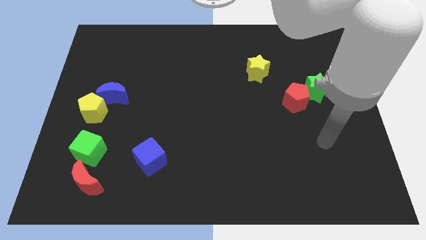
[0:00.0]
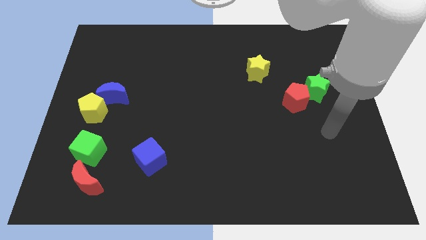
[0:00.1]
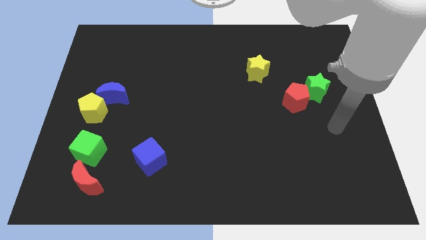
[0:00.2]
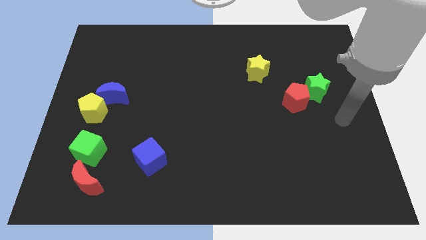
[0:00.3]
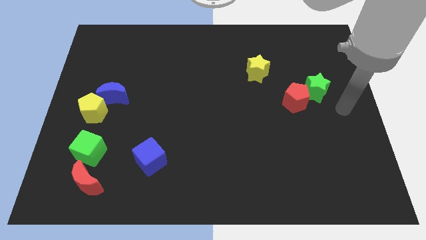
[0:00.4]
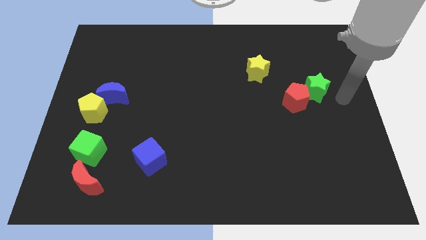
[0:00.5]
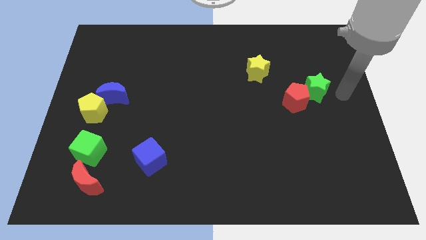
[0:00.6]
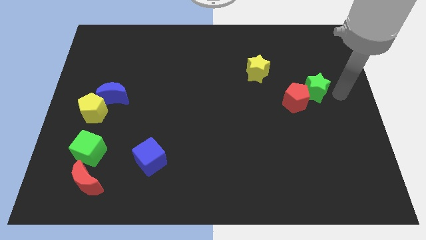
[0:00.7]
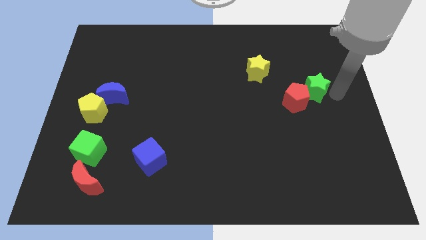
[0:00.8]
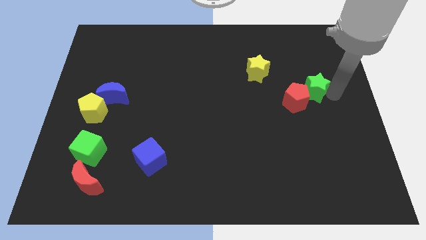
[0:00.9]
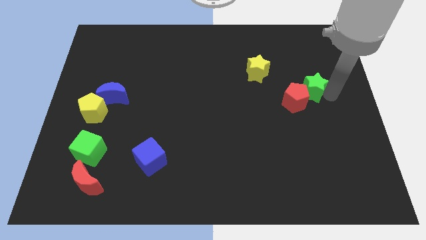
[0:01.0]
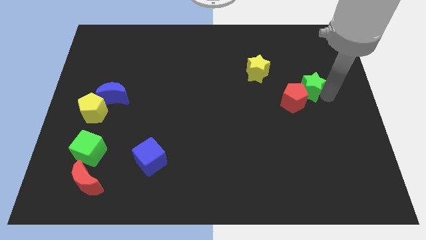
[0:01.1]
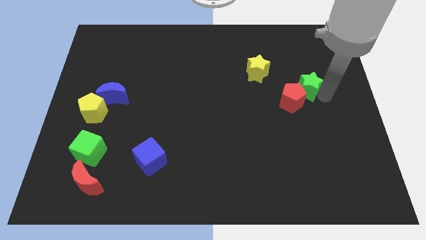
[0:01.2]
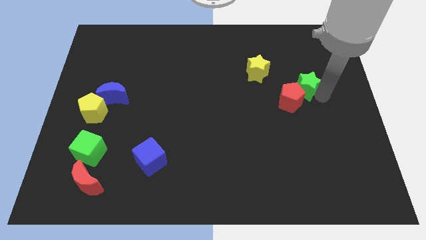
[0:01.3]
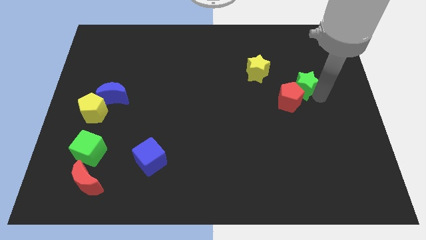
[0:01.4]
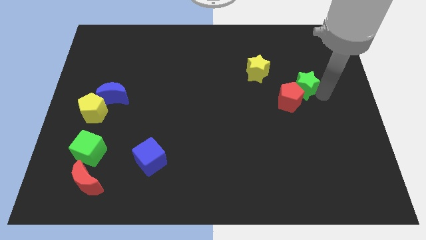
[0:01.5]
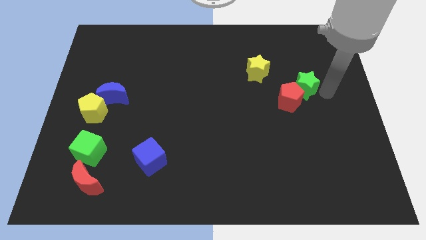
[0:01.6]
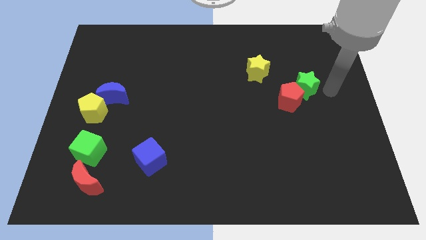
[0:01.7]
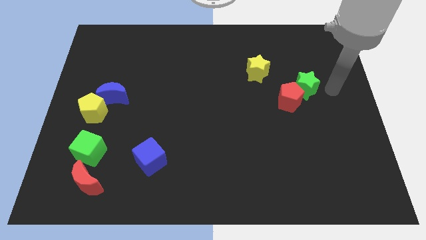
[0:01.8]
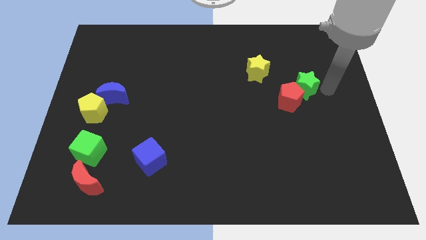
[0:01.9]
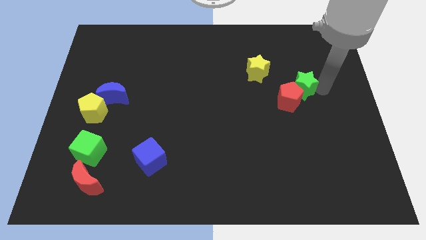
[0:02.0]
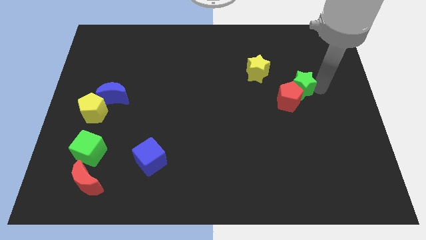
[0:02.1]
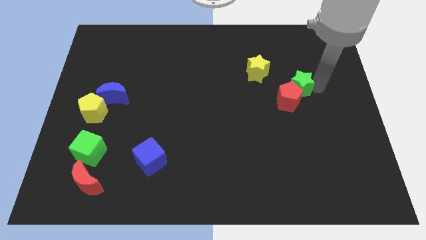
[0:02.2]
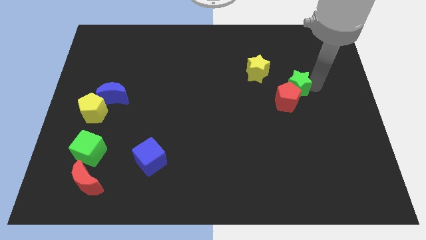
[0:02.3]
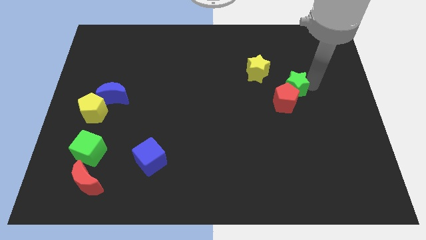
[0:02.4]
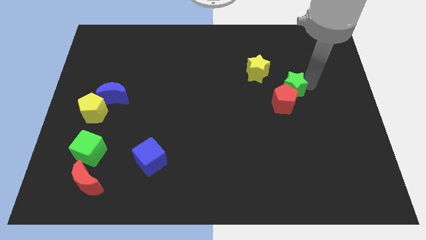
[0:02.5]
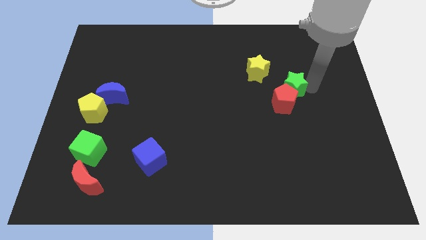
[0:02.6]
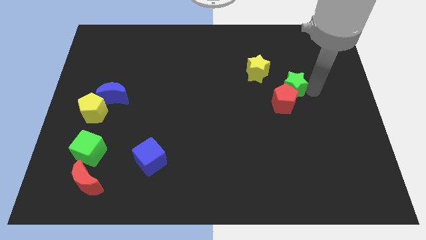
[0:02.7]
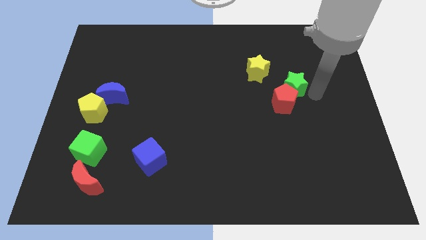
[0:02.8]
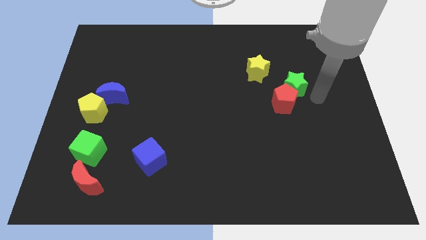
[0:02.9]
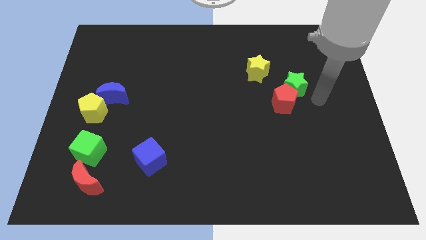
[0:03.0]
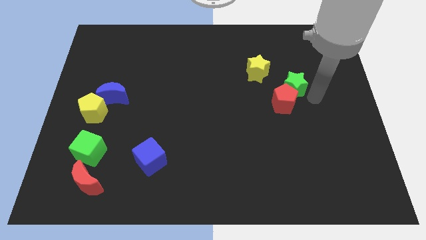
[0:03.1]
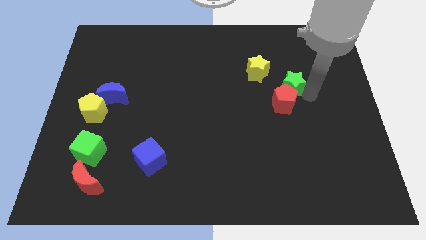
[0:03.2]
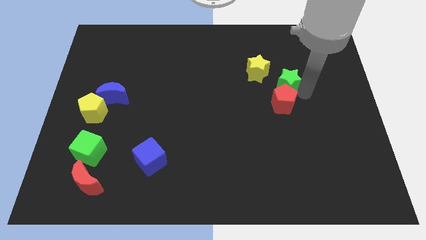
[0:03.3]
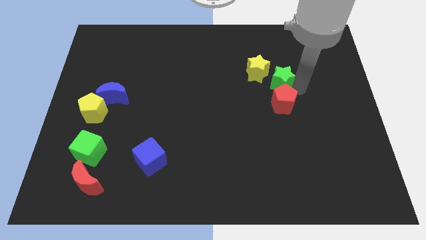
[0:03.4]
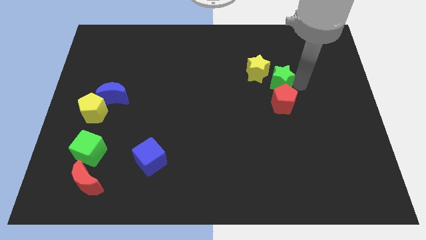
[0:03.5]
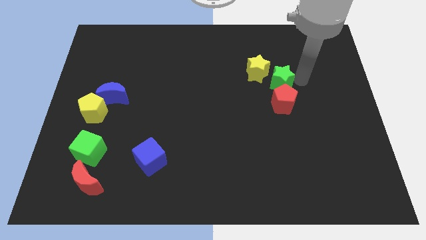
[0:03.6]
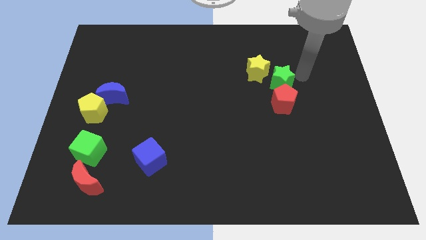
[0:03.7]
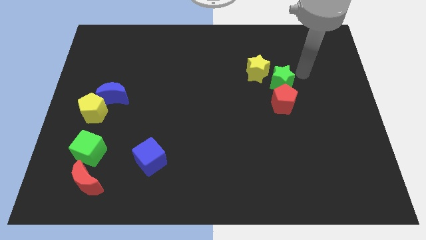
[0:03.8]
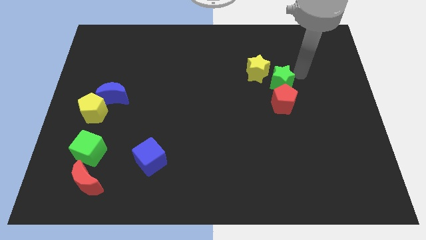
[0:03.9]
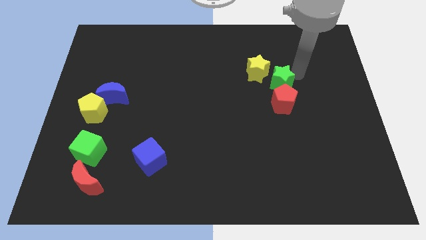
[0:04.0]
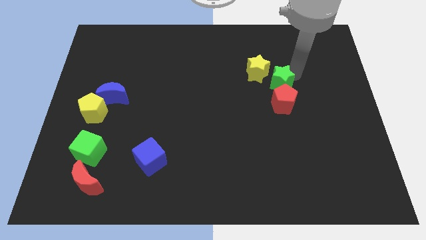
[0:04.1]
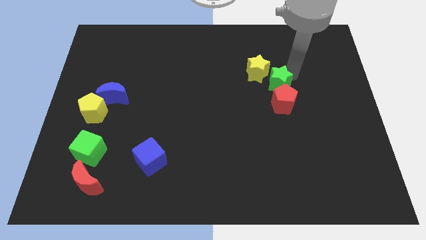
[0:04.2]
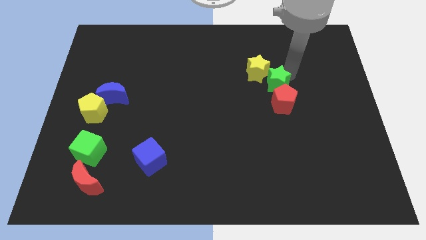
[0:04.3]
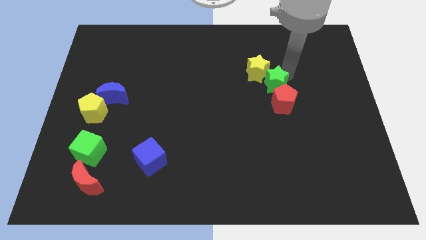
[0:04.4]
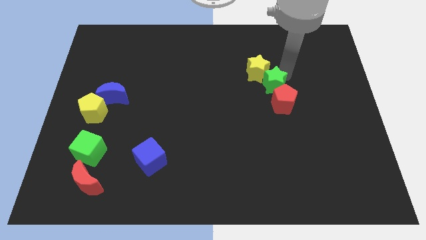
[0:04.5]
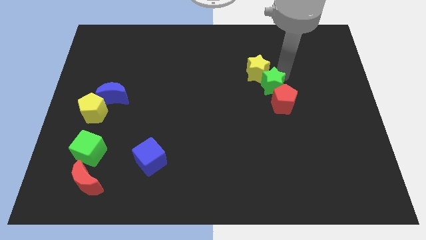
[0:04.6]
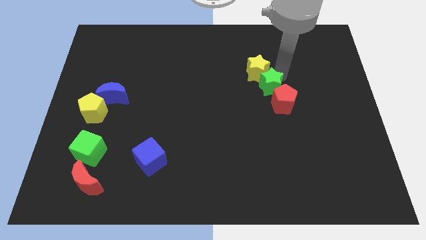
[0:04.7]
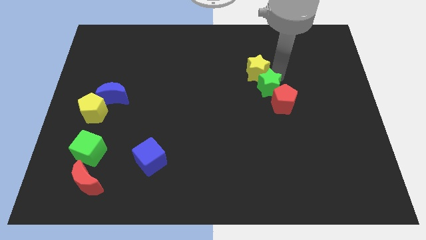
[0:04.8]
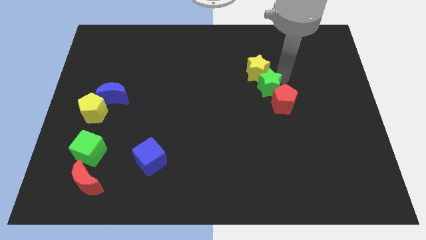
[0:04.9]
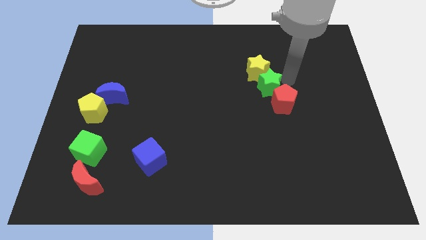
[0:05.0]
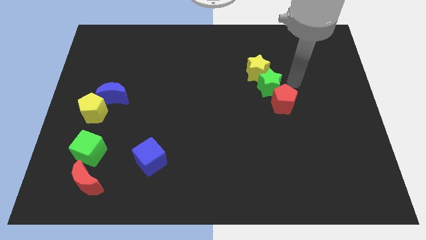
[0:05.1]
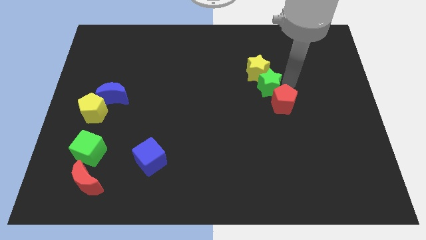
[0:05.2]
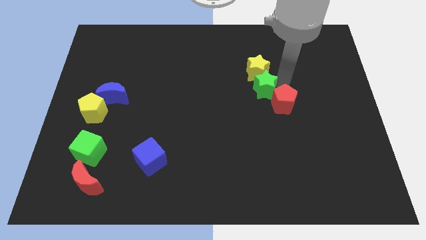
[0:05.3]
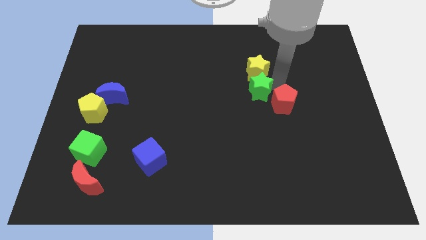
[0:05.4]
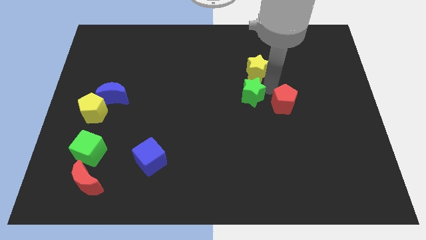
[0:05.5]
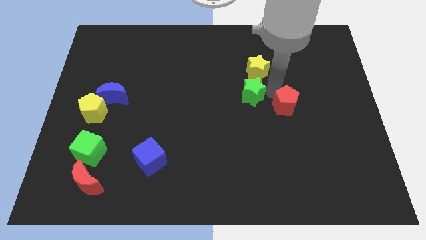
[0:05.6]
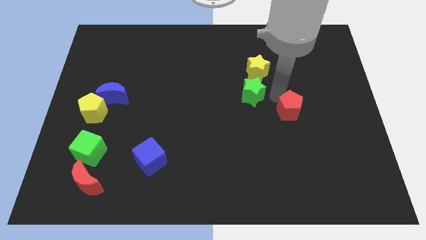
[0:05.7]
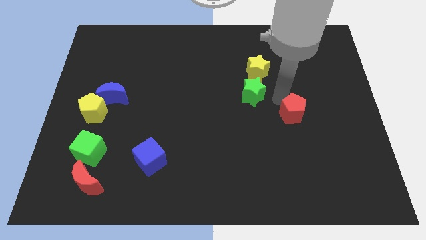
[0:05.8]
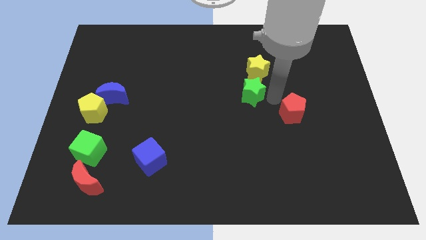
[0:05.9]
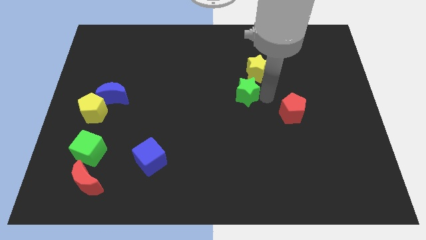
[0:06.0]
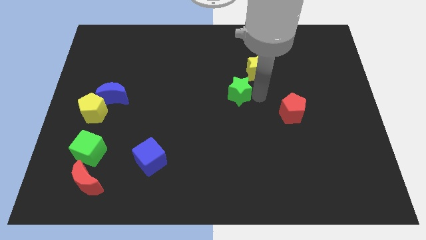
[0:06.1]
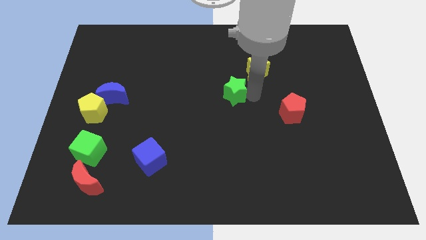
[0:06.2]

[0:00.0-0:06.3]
slide the green star to the left

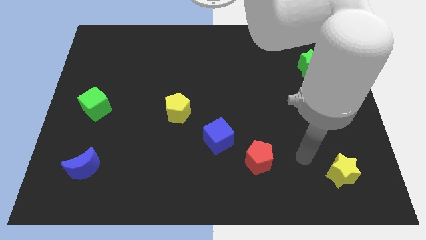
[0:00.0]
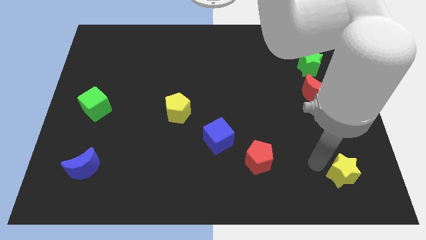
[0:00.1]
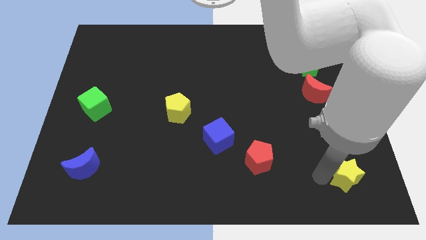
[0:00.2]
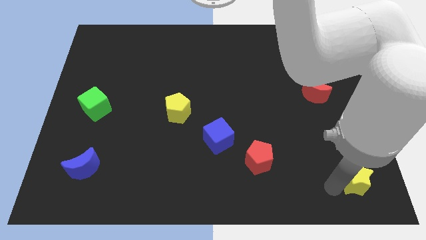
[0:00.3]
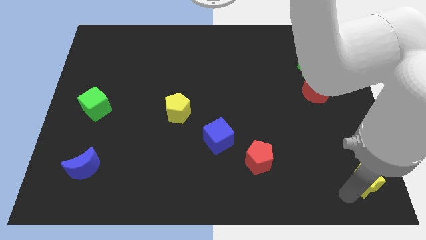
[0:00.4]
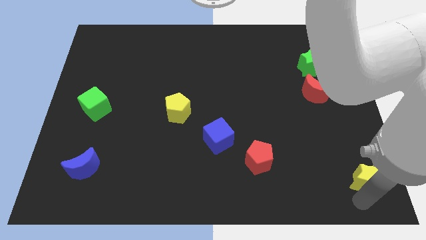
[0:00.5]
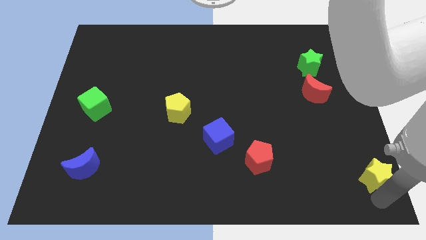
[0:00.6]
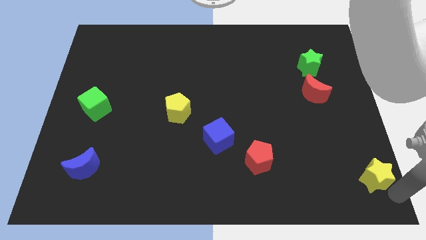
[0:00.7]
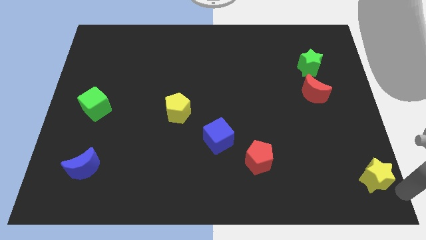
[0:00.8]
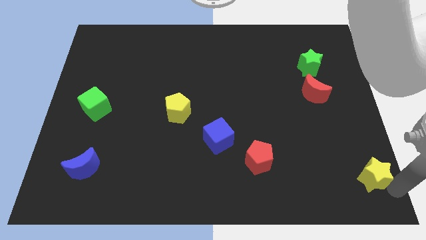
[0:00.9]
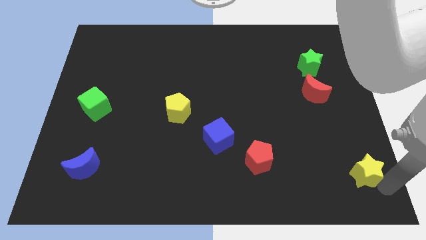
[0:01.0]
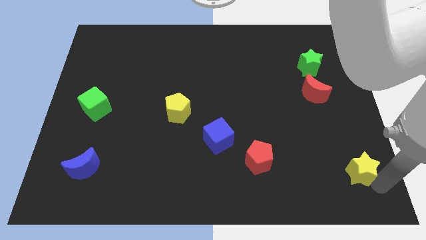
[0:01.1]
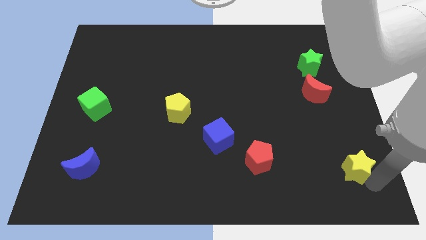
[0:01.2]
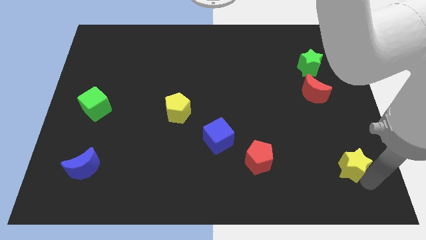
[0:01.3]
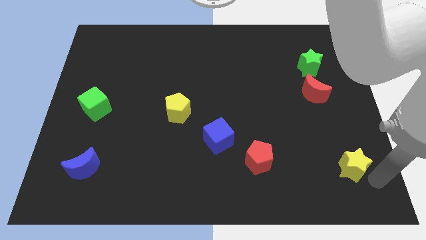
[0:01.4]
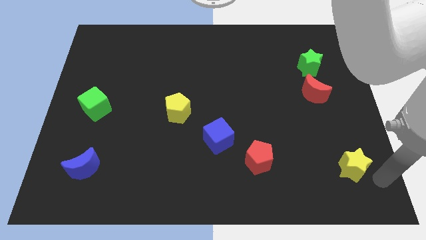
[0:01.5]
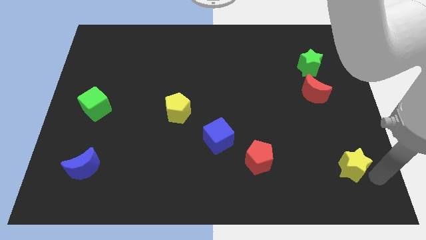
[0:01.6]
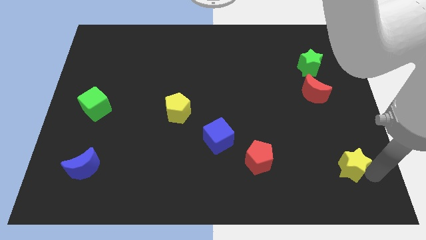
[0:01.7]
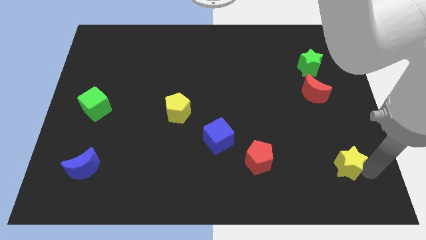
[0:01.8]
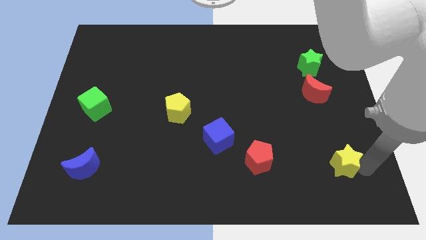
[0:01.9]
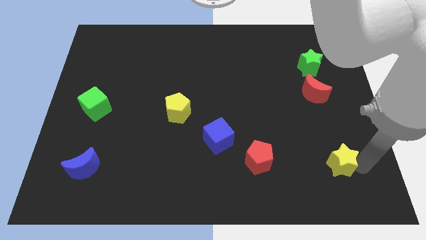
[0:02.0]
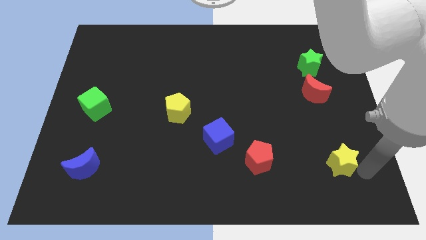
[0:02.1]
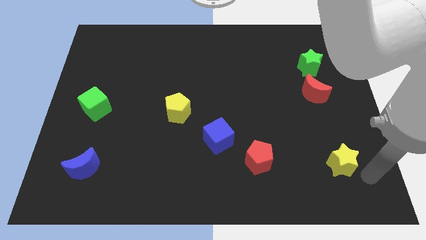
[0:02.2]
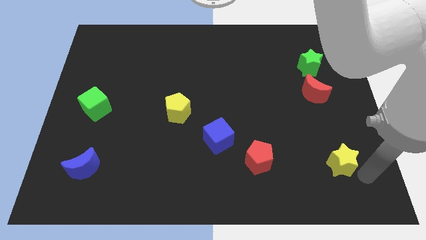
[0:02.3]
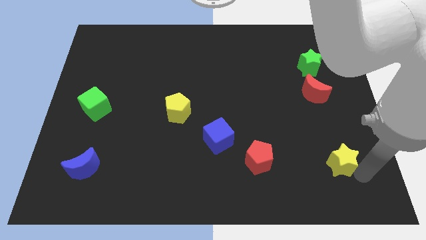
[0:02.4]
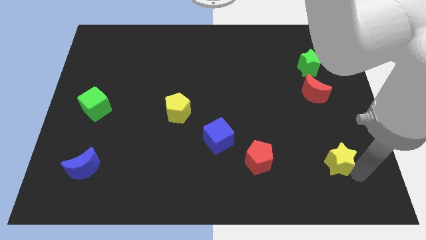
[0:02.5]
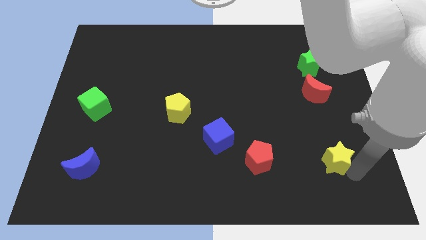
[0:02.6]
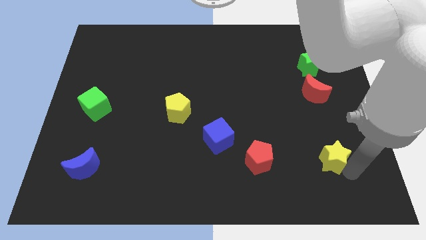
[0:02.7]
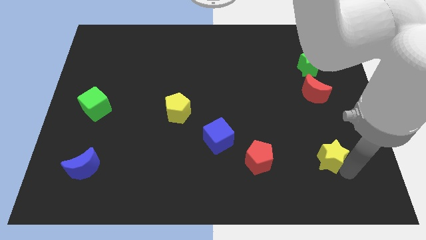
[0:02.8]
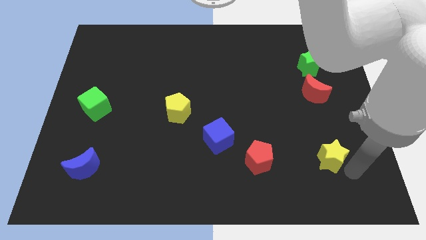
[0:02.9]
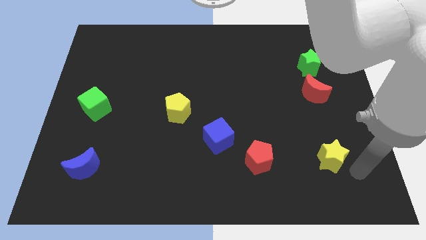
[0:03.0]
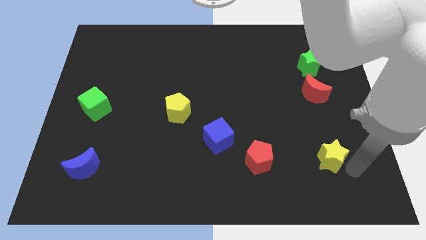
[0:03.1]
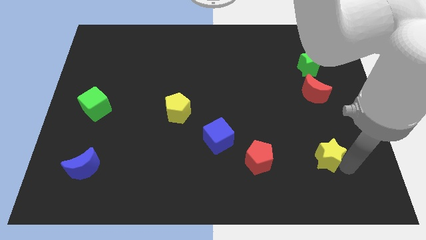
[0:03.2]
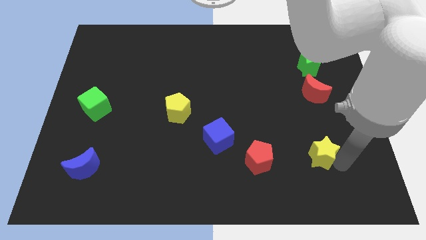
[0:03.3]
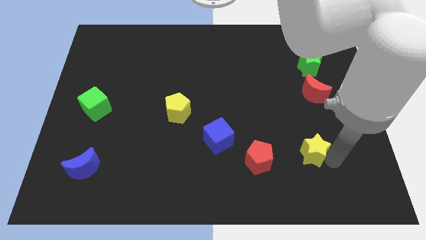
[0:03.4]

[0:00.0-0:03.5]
slide the yellow star upwards and left a little bit
